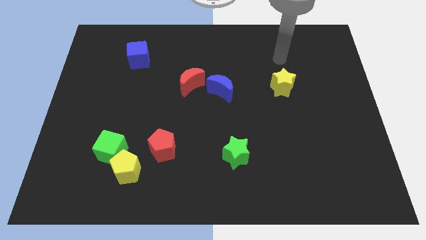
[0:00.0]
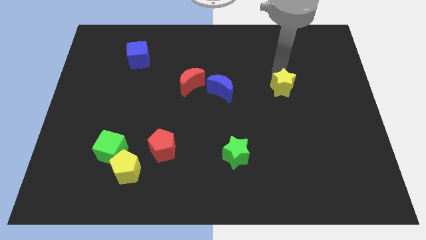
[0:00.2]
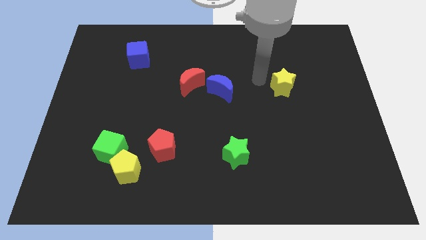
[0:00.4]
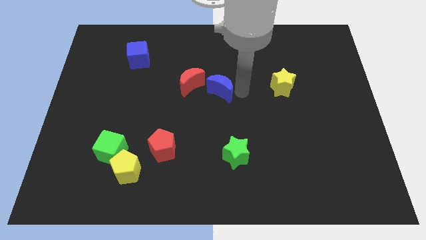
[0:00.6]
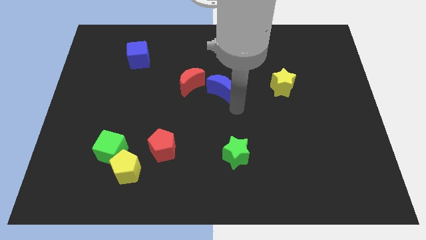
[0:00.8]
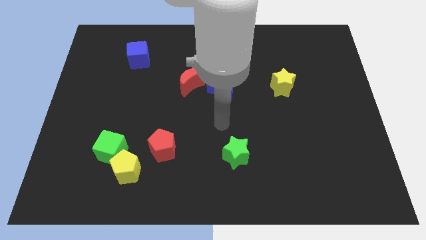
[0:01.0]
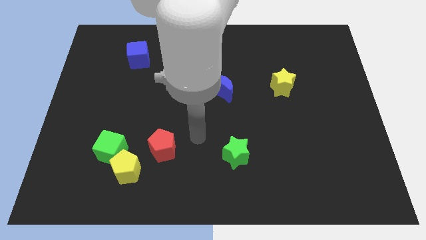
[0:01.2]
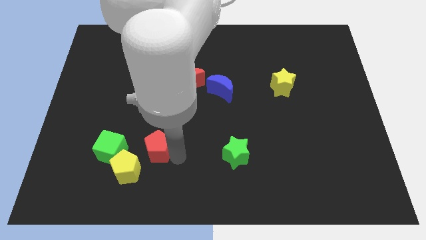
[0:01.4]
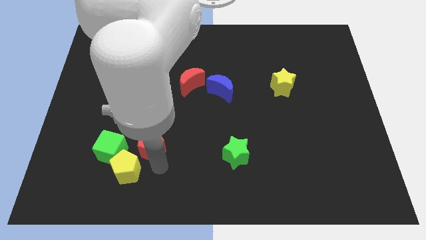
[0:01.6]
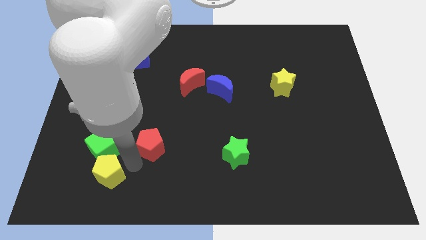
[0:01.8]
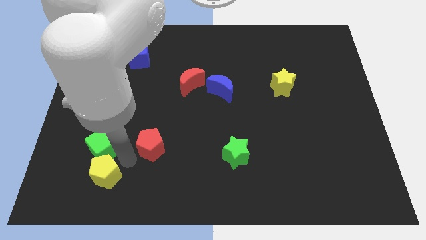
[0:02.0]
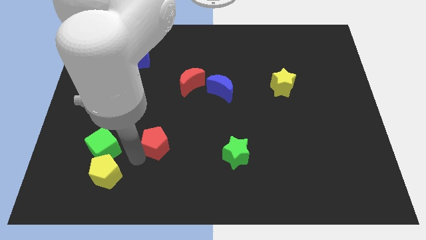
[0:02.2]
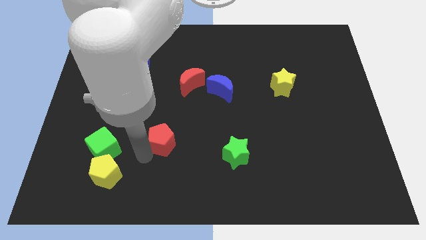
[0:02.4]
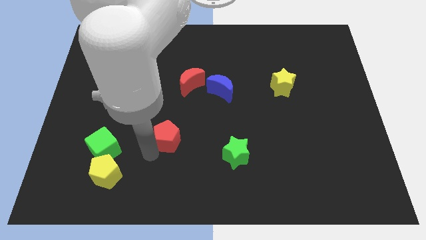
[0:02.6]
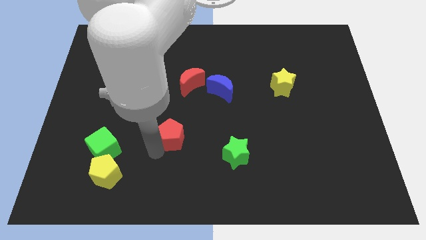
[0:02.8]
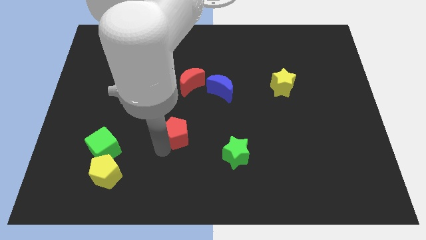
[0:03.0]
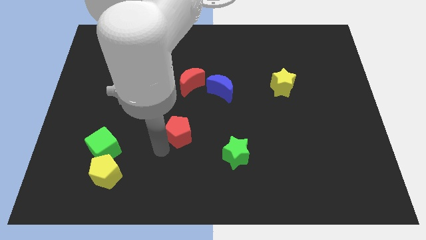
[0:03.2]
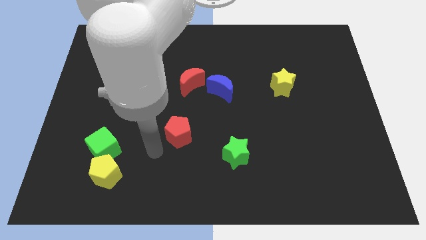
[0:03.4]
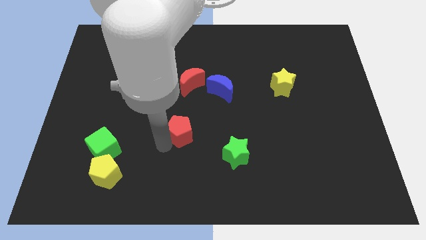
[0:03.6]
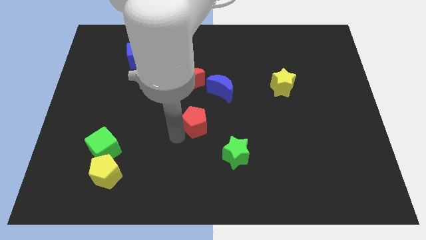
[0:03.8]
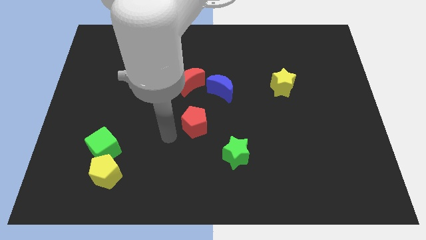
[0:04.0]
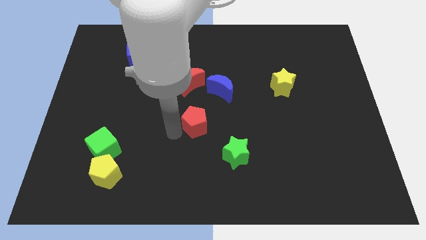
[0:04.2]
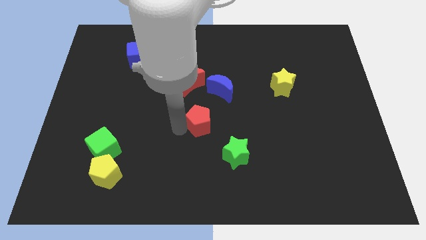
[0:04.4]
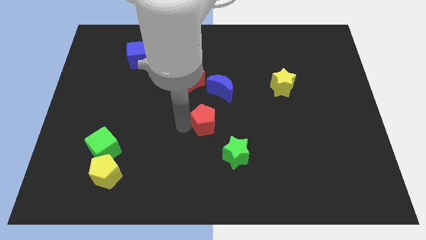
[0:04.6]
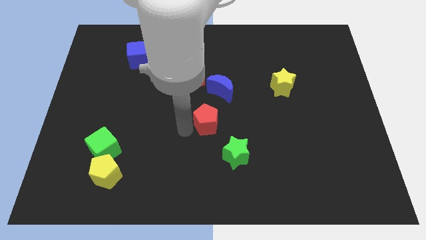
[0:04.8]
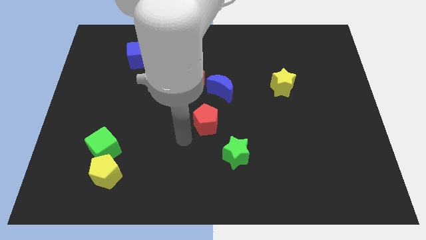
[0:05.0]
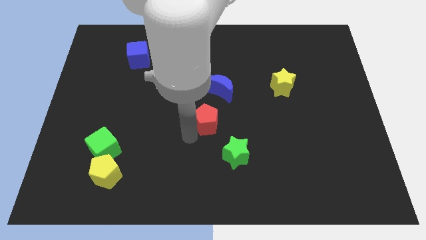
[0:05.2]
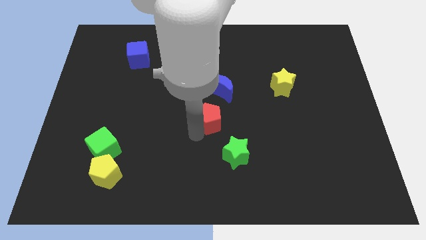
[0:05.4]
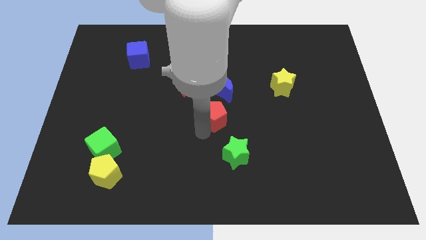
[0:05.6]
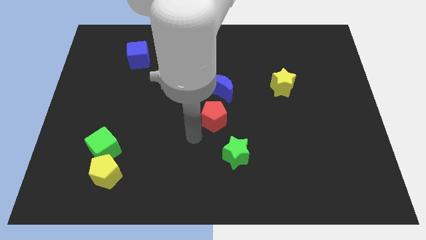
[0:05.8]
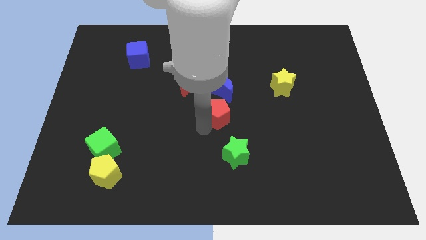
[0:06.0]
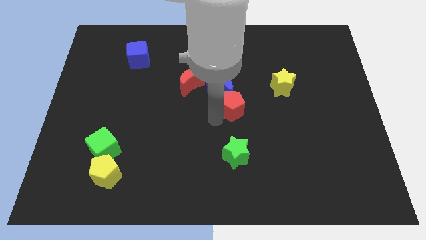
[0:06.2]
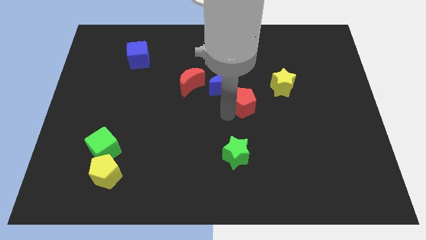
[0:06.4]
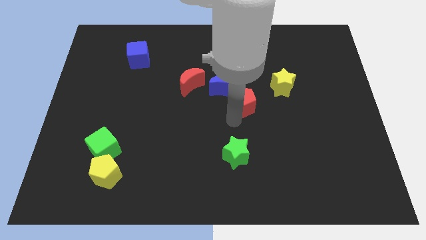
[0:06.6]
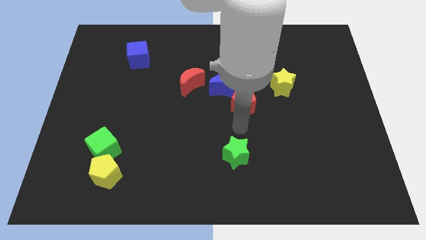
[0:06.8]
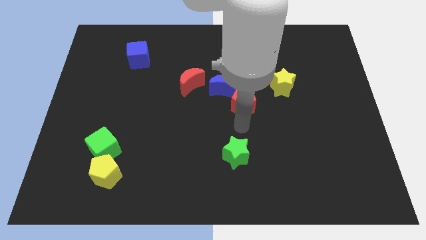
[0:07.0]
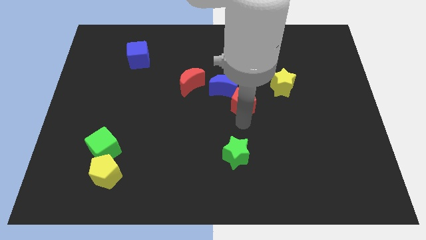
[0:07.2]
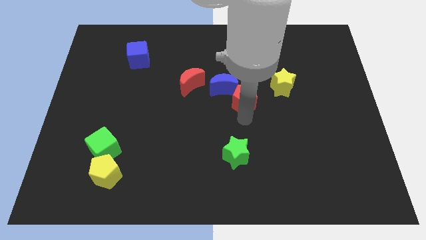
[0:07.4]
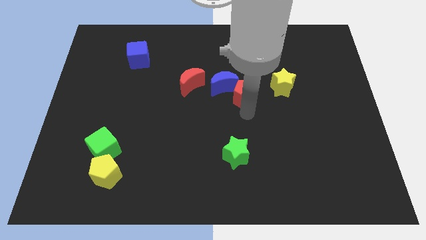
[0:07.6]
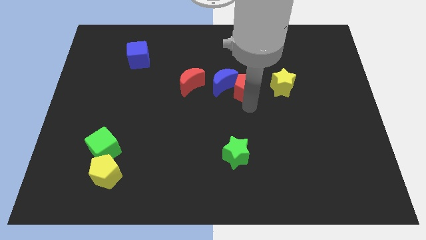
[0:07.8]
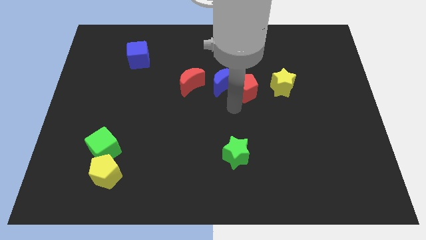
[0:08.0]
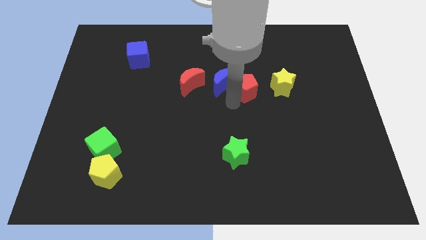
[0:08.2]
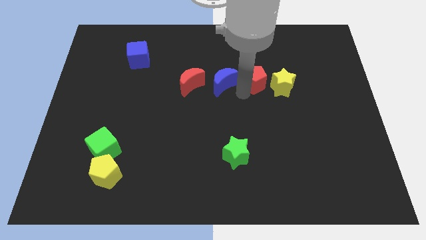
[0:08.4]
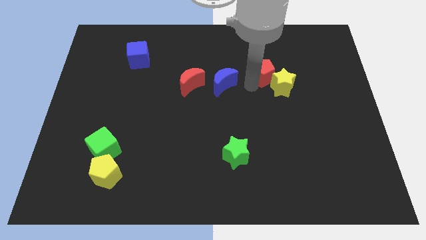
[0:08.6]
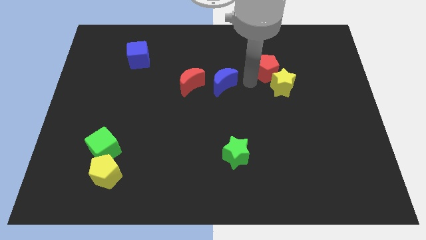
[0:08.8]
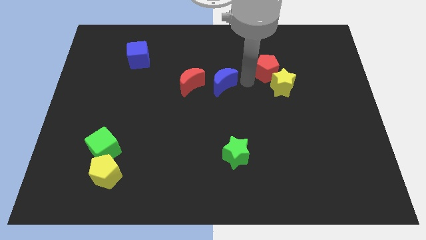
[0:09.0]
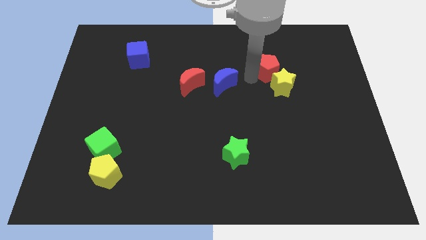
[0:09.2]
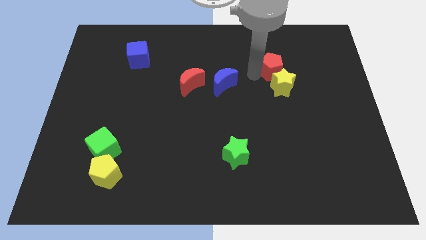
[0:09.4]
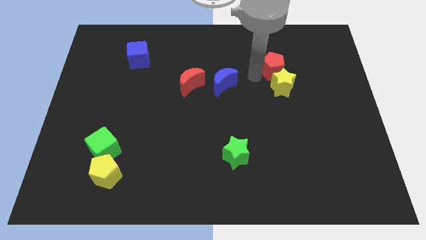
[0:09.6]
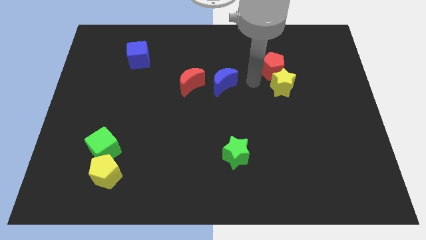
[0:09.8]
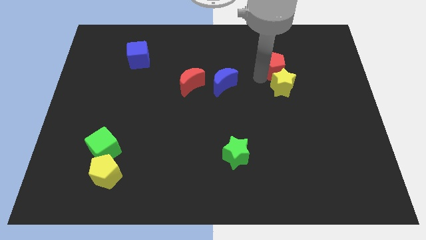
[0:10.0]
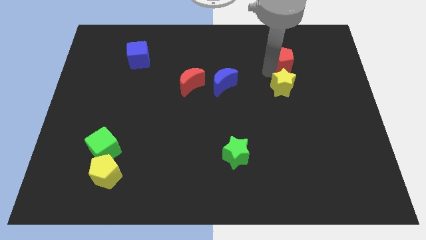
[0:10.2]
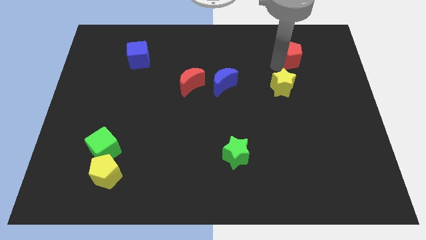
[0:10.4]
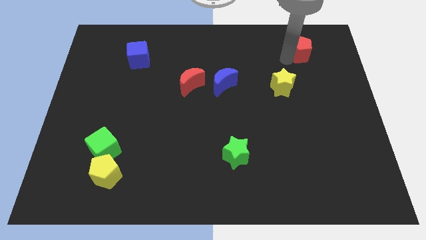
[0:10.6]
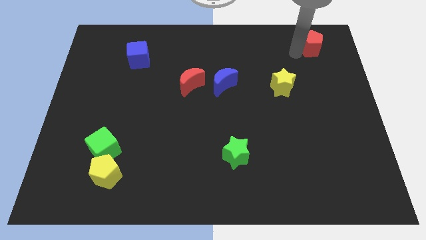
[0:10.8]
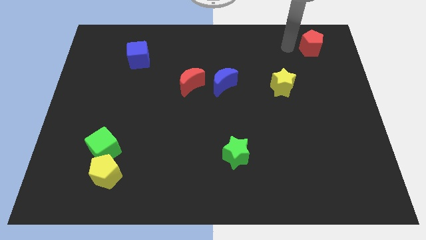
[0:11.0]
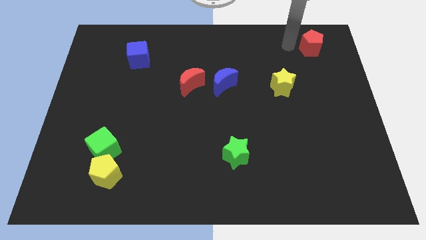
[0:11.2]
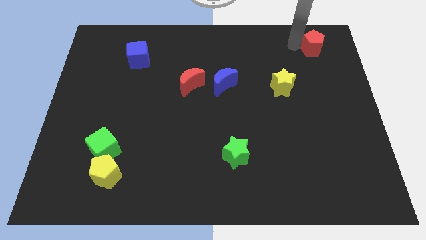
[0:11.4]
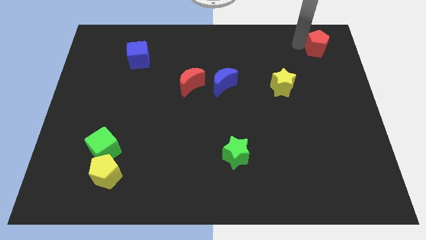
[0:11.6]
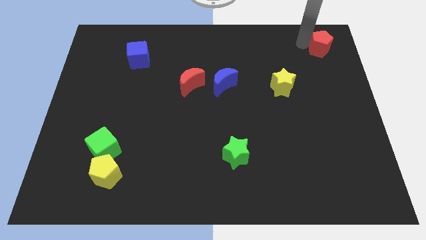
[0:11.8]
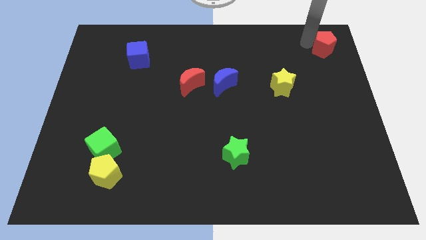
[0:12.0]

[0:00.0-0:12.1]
push the red pentagon to the top right of the board
